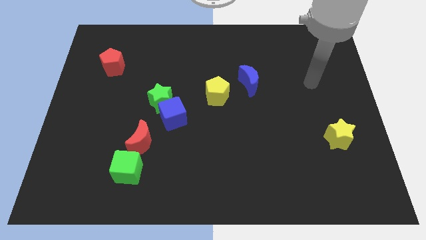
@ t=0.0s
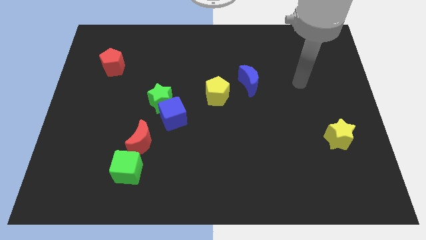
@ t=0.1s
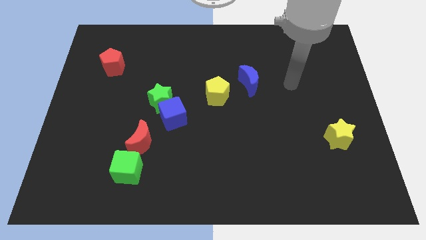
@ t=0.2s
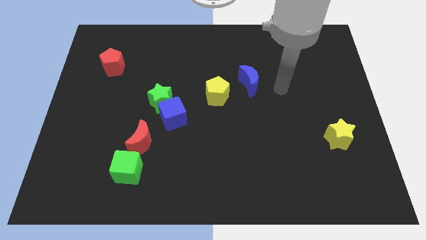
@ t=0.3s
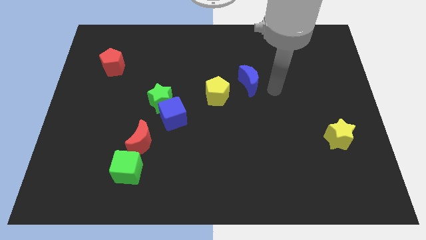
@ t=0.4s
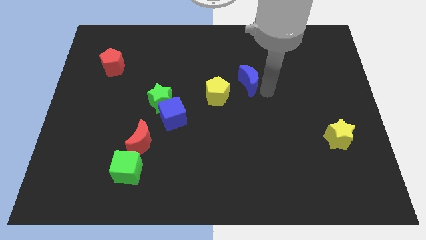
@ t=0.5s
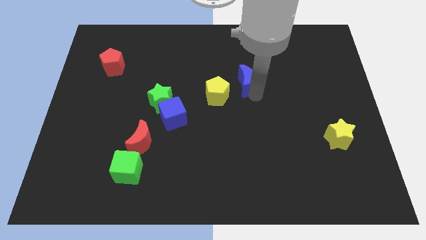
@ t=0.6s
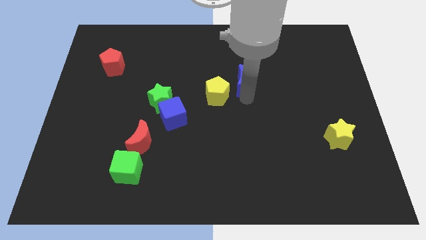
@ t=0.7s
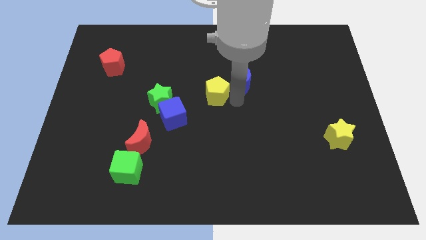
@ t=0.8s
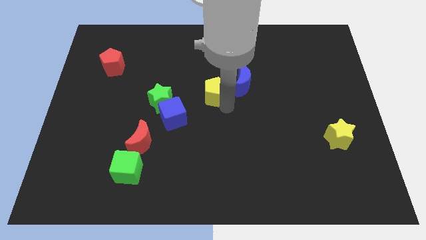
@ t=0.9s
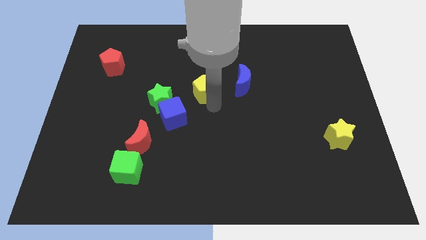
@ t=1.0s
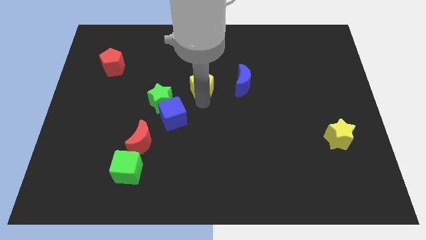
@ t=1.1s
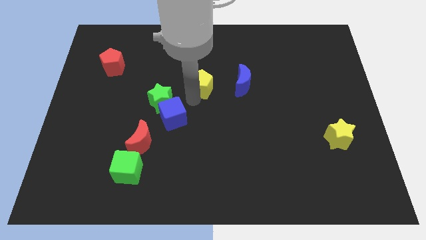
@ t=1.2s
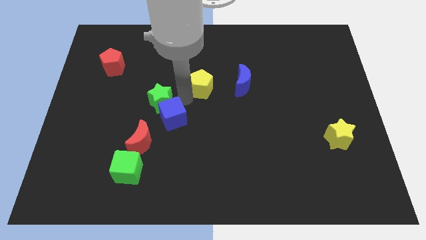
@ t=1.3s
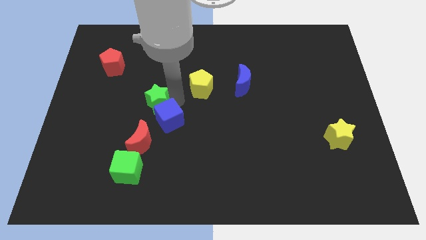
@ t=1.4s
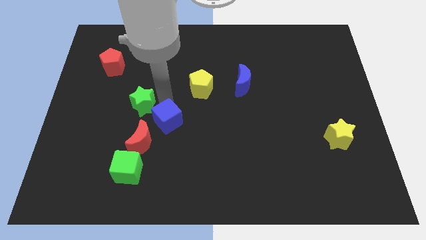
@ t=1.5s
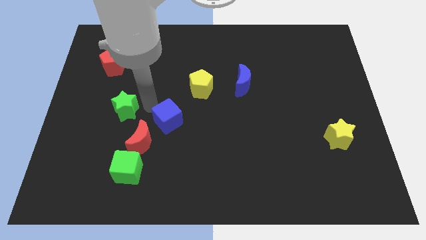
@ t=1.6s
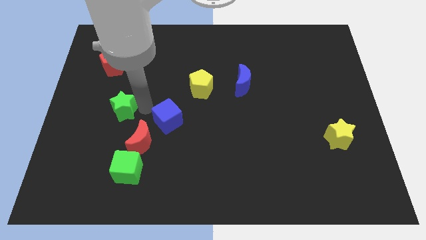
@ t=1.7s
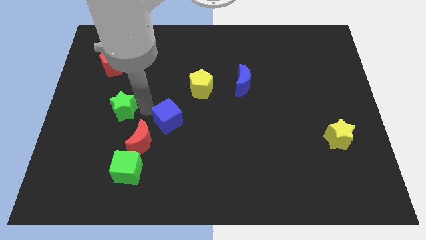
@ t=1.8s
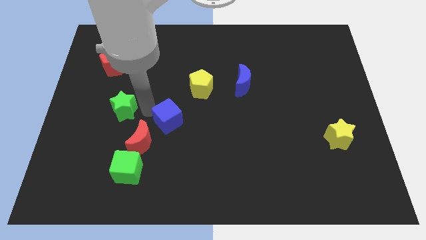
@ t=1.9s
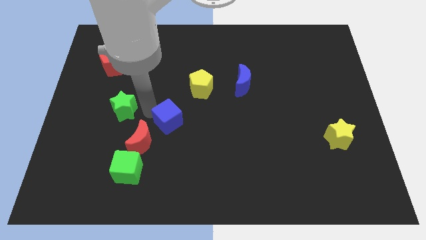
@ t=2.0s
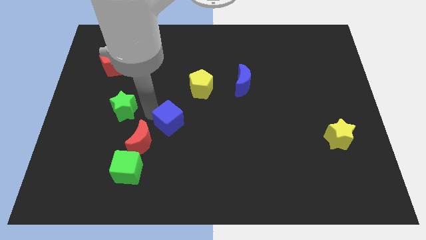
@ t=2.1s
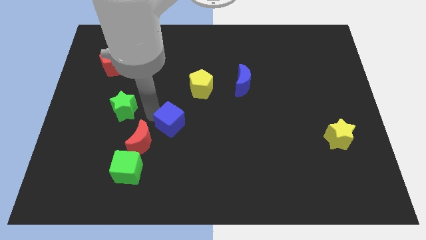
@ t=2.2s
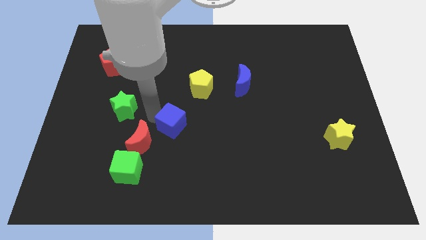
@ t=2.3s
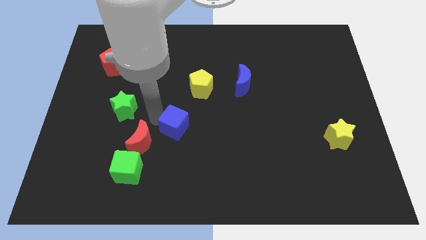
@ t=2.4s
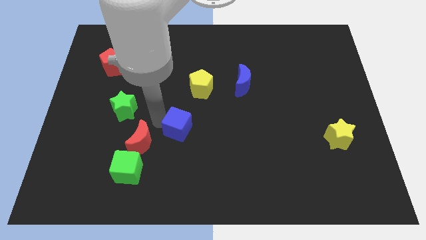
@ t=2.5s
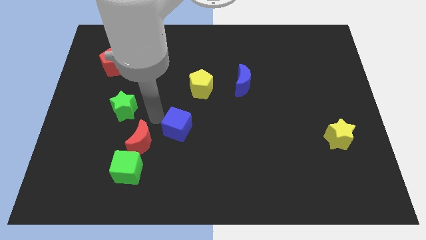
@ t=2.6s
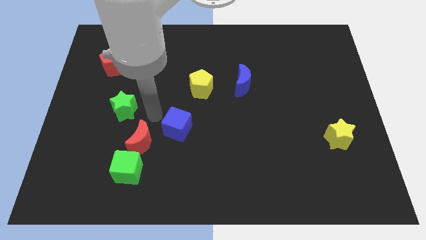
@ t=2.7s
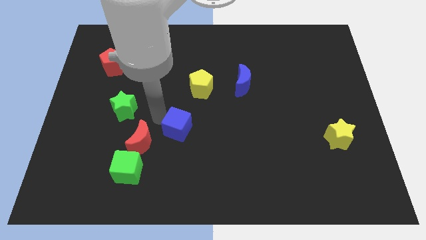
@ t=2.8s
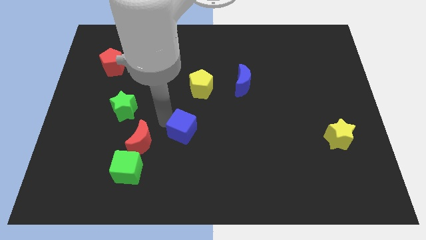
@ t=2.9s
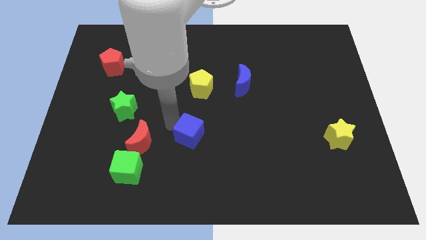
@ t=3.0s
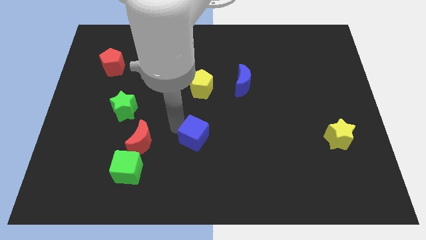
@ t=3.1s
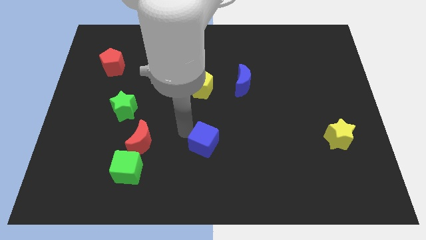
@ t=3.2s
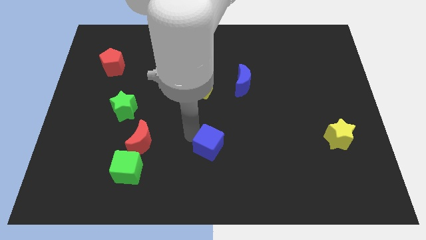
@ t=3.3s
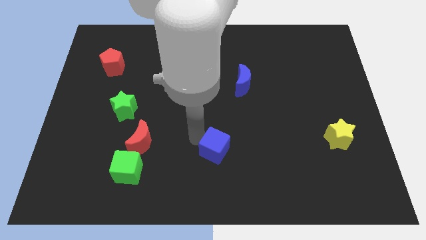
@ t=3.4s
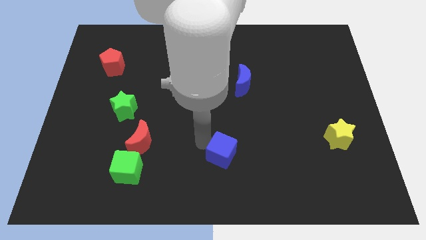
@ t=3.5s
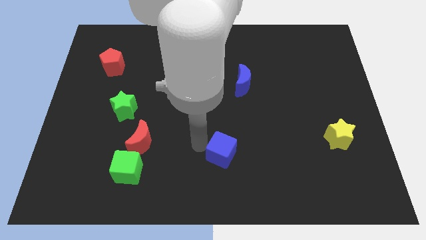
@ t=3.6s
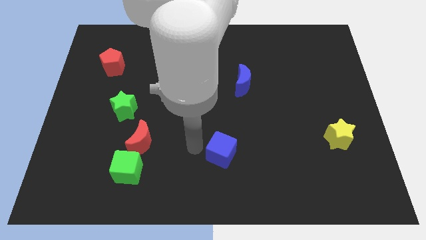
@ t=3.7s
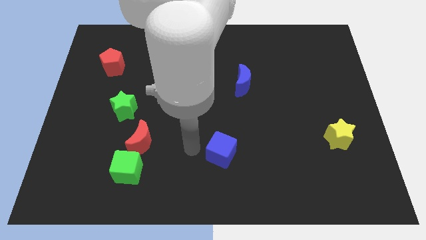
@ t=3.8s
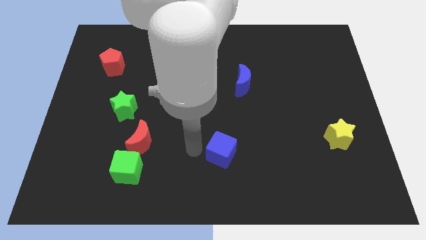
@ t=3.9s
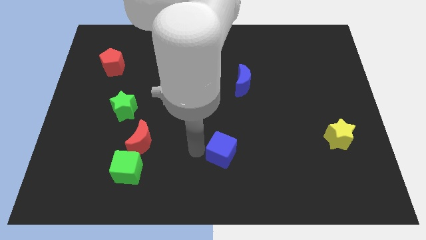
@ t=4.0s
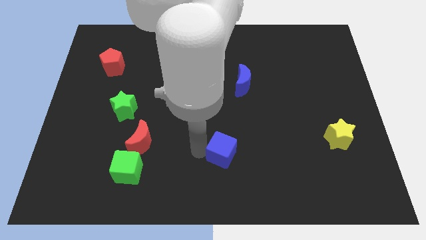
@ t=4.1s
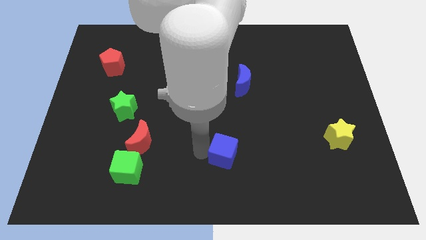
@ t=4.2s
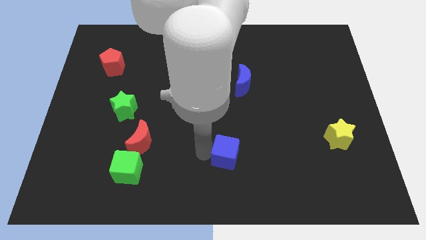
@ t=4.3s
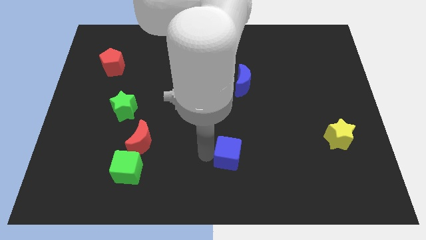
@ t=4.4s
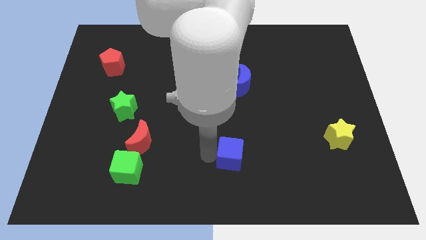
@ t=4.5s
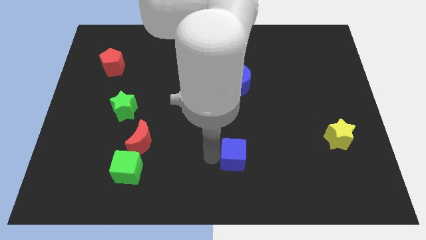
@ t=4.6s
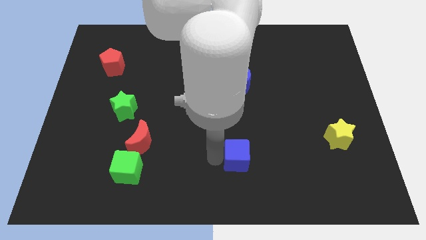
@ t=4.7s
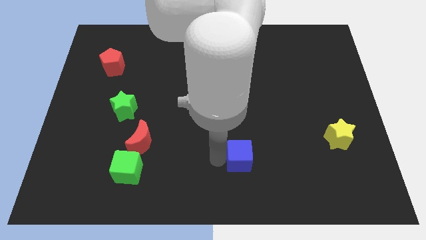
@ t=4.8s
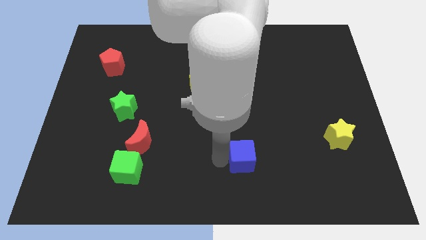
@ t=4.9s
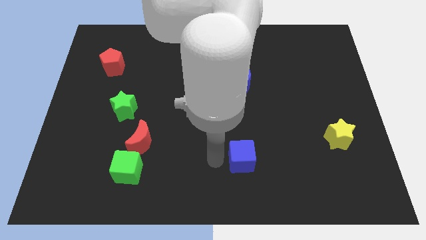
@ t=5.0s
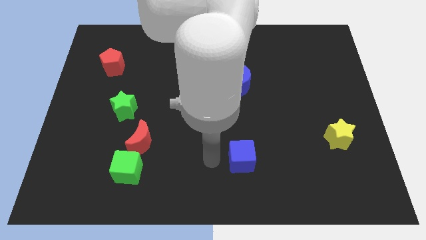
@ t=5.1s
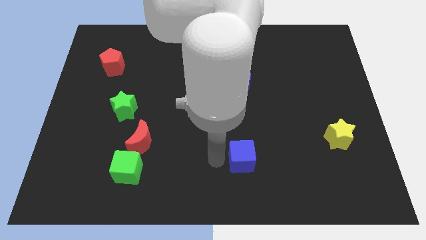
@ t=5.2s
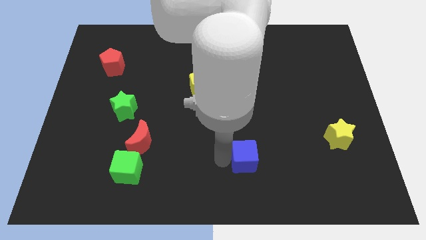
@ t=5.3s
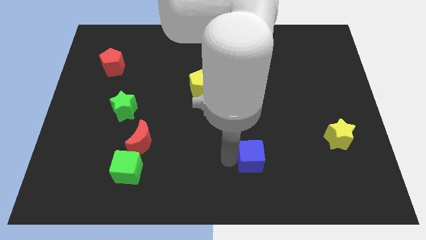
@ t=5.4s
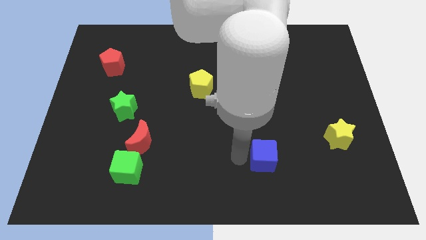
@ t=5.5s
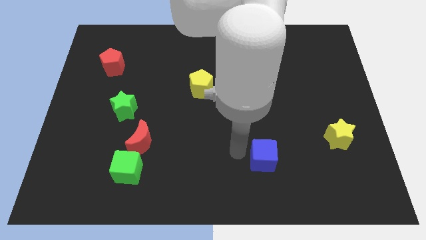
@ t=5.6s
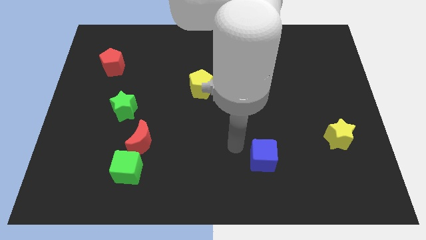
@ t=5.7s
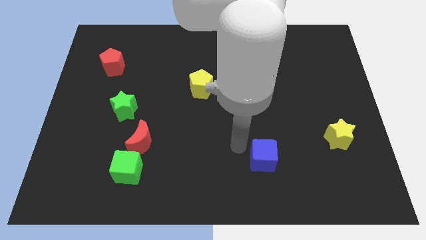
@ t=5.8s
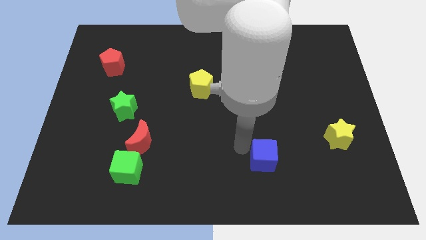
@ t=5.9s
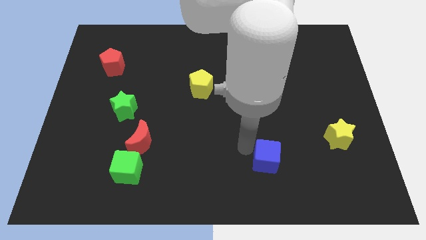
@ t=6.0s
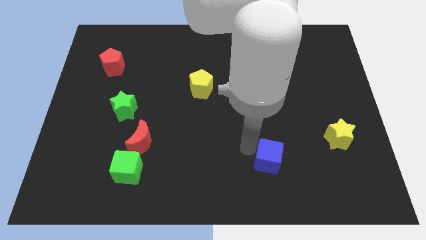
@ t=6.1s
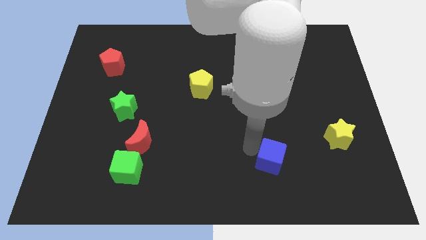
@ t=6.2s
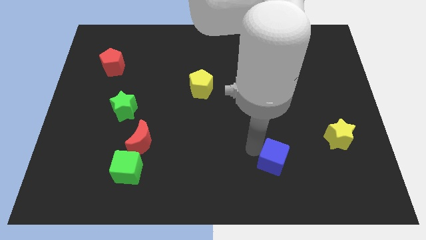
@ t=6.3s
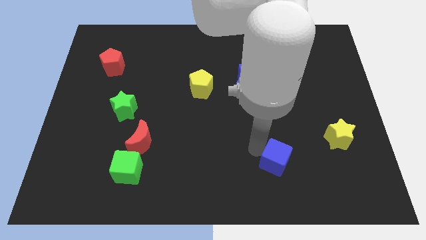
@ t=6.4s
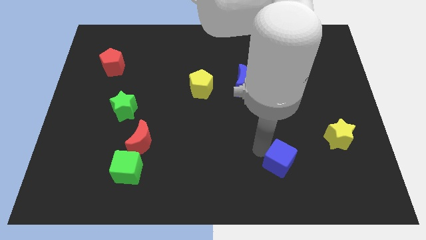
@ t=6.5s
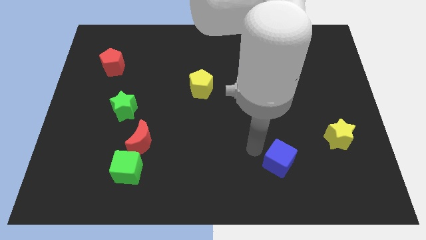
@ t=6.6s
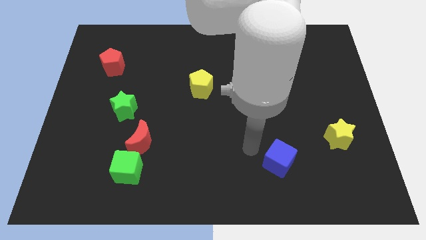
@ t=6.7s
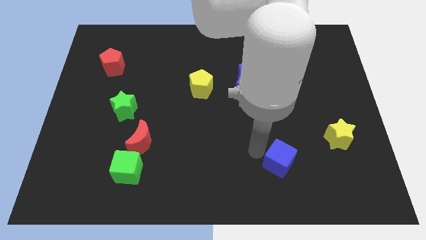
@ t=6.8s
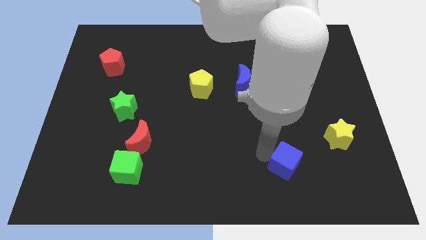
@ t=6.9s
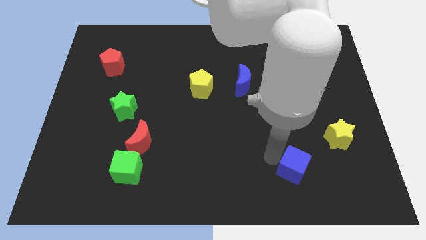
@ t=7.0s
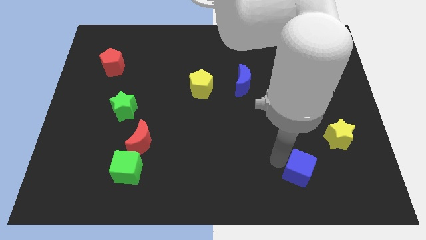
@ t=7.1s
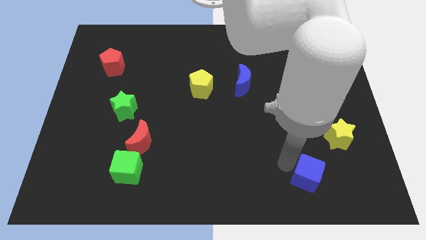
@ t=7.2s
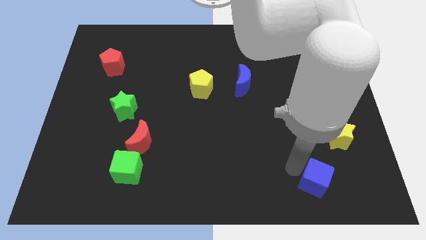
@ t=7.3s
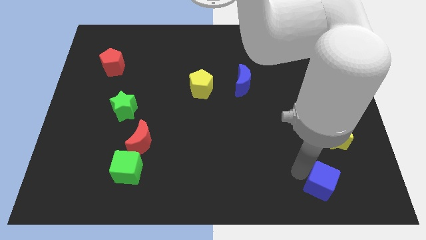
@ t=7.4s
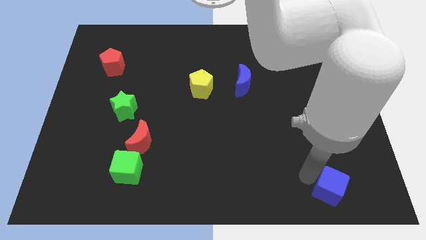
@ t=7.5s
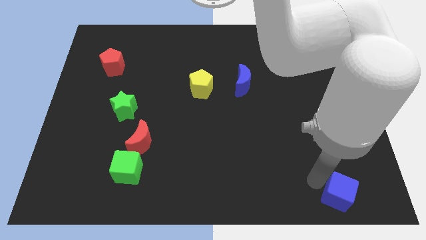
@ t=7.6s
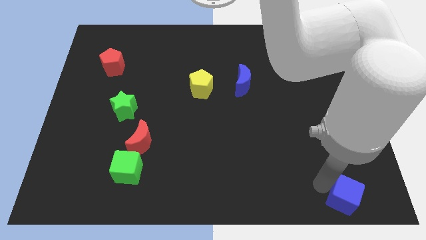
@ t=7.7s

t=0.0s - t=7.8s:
move the blue cube to the bottom right
